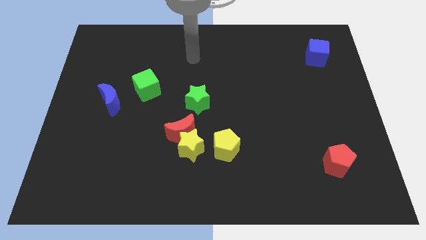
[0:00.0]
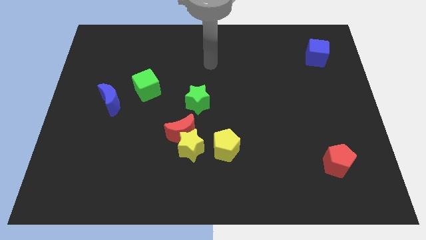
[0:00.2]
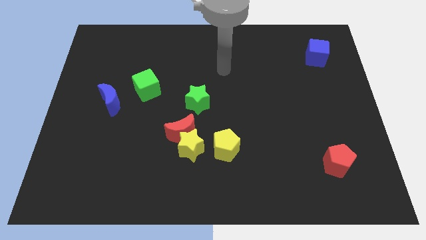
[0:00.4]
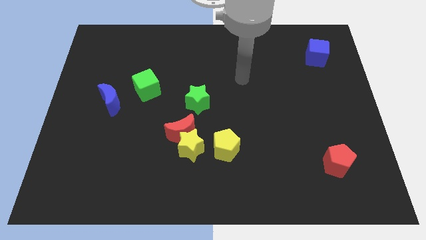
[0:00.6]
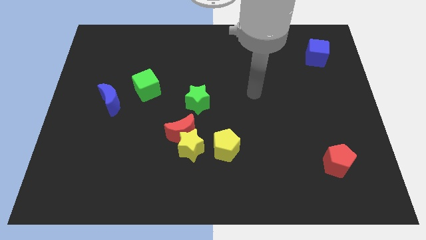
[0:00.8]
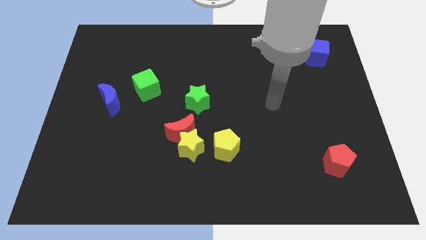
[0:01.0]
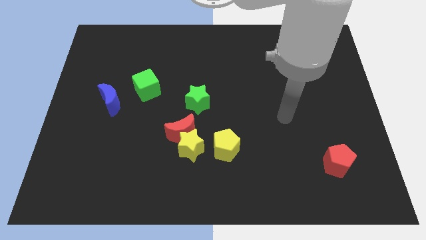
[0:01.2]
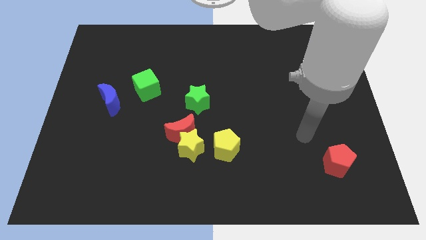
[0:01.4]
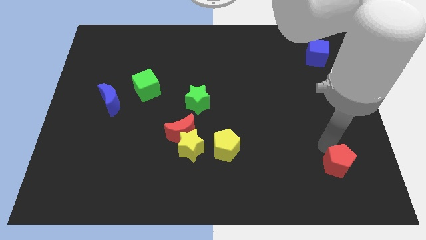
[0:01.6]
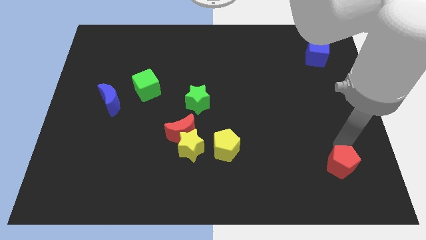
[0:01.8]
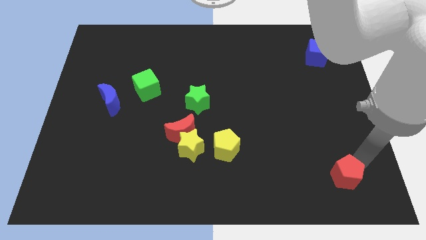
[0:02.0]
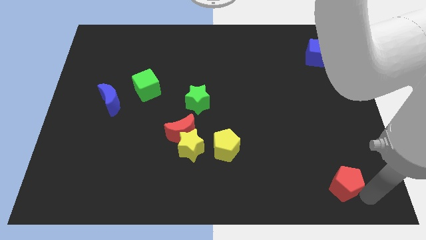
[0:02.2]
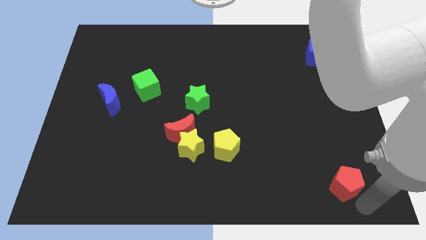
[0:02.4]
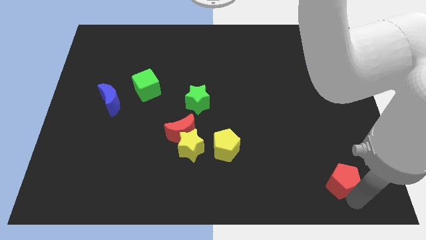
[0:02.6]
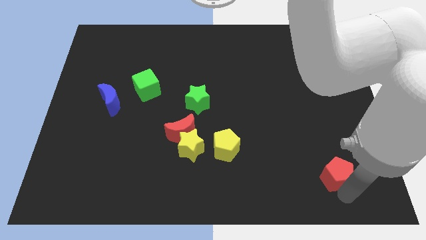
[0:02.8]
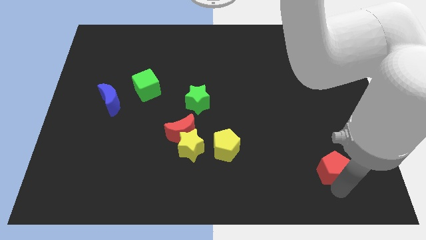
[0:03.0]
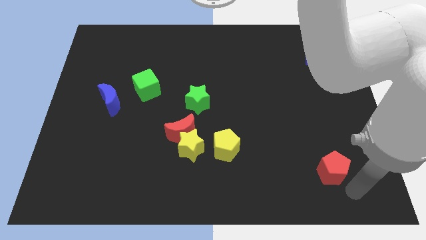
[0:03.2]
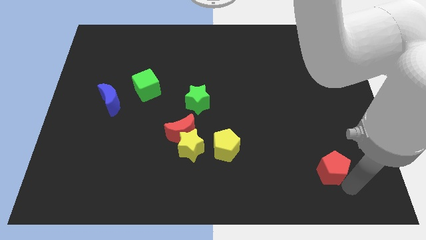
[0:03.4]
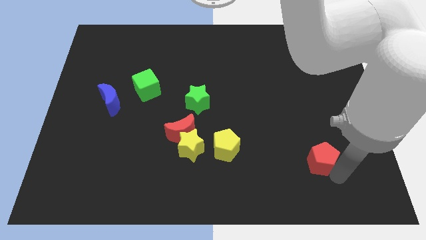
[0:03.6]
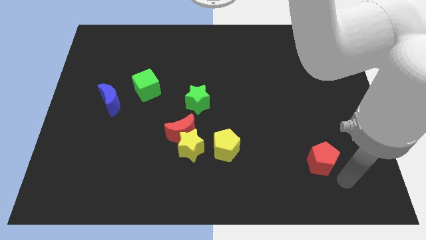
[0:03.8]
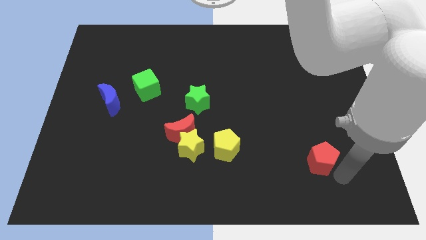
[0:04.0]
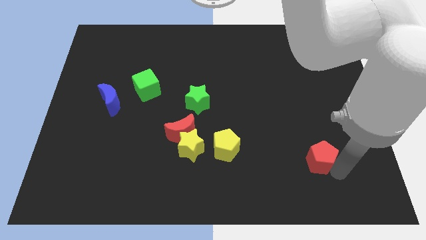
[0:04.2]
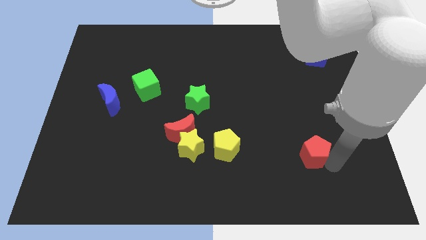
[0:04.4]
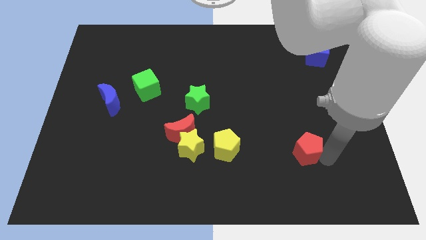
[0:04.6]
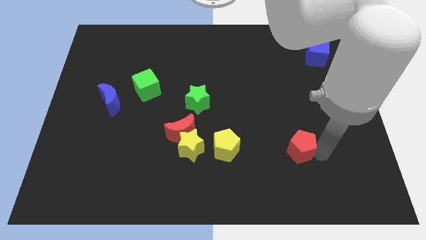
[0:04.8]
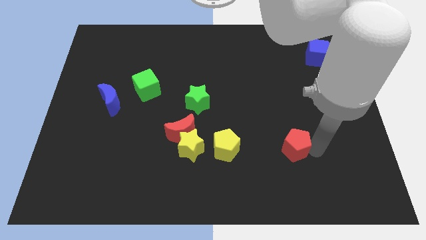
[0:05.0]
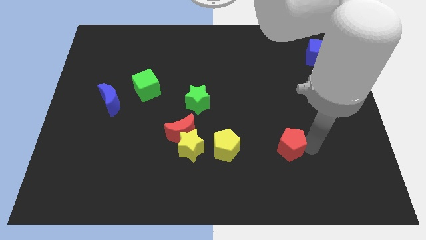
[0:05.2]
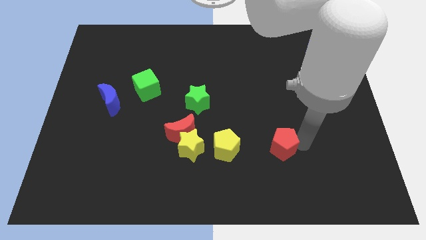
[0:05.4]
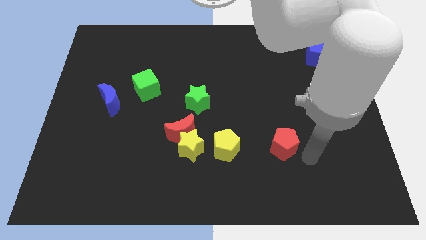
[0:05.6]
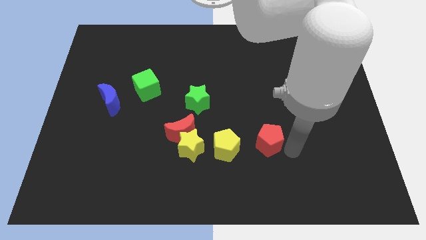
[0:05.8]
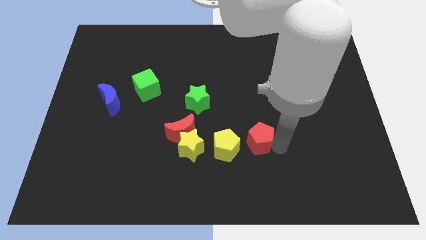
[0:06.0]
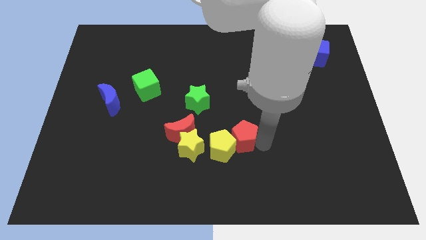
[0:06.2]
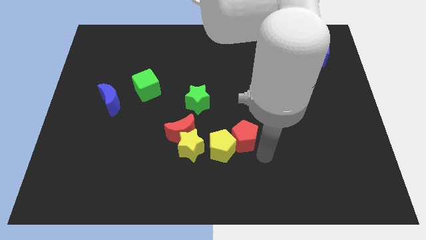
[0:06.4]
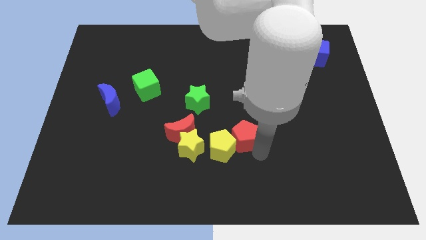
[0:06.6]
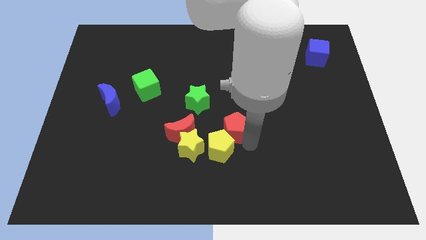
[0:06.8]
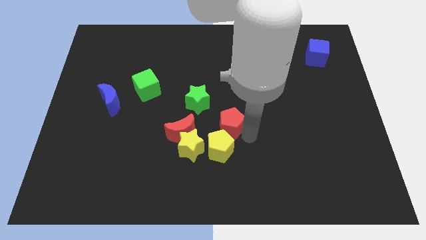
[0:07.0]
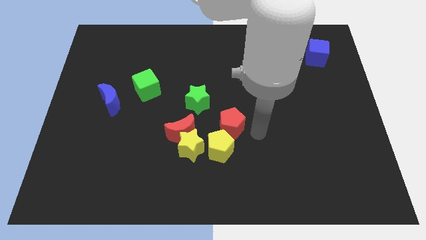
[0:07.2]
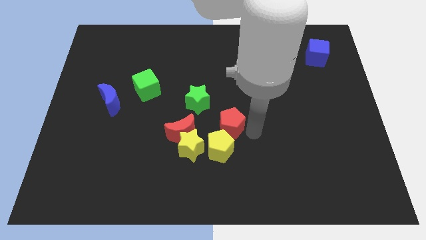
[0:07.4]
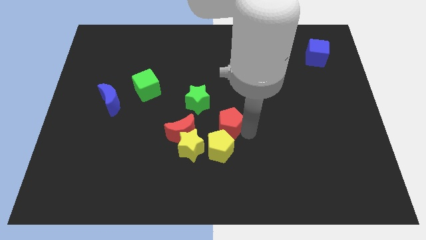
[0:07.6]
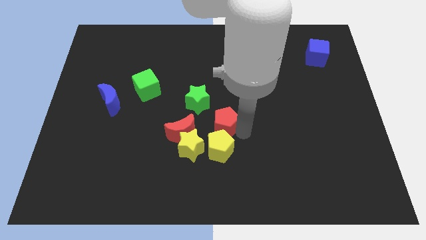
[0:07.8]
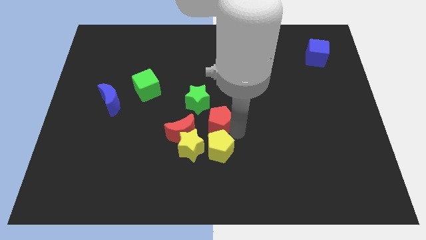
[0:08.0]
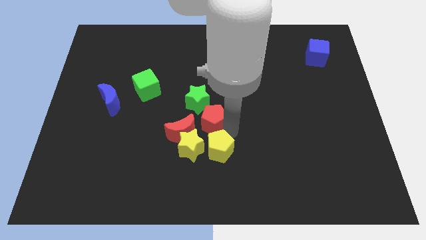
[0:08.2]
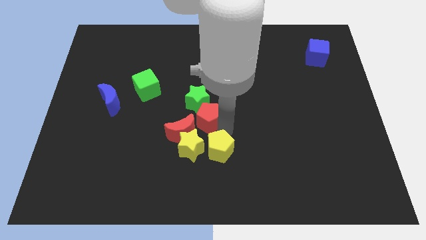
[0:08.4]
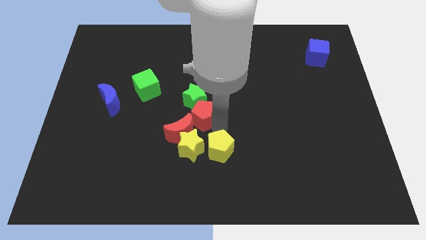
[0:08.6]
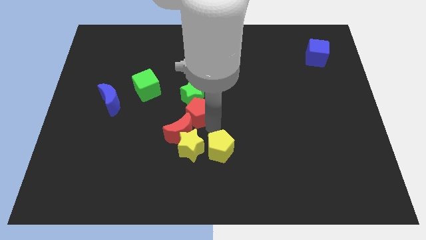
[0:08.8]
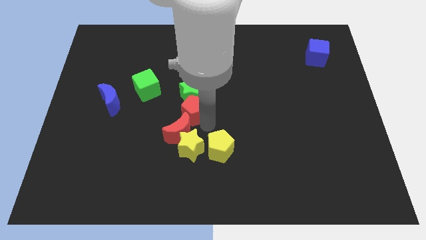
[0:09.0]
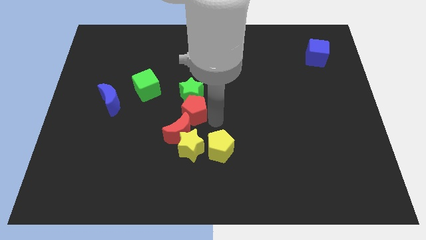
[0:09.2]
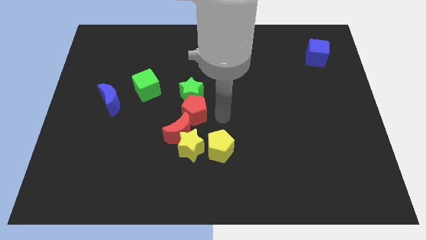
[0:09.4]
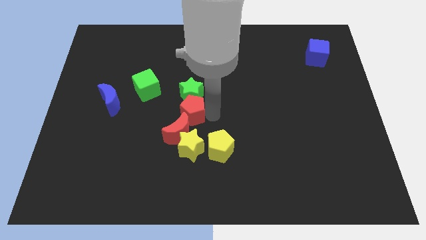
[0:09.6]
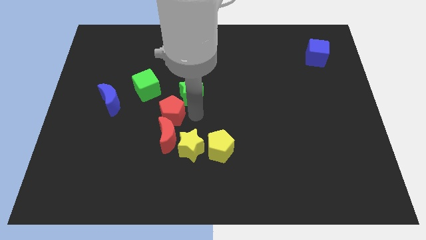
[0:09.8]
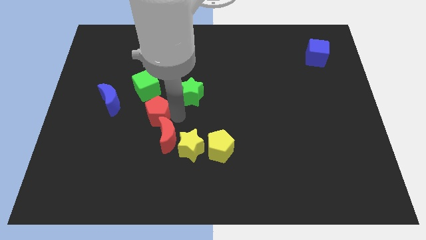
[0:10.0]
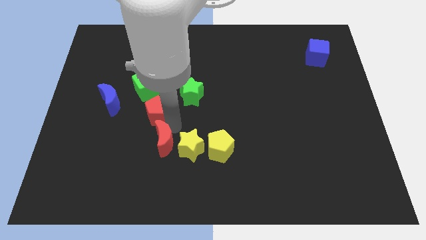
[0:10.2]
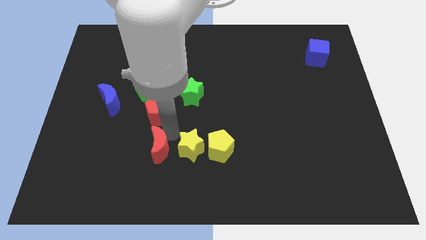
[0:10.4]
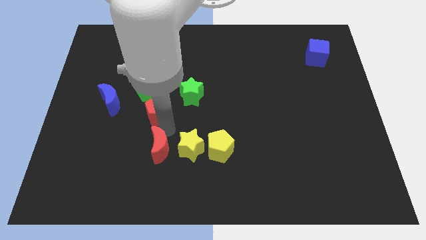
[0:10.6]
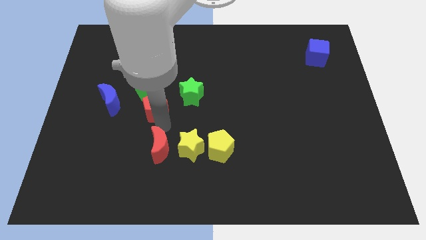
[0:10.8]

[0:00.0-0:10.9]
move the red pentagon left of the green star

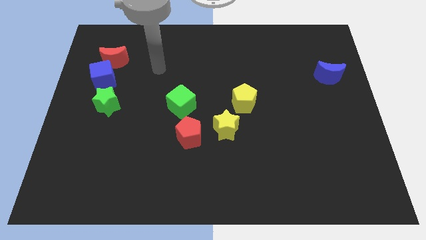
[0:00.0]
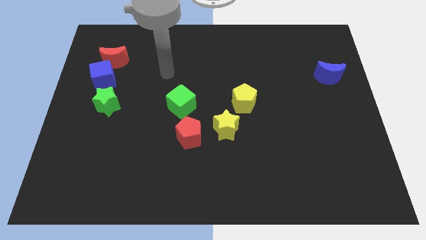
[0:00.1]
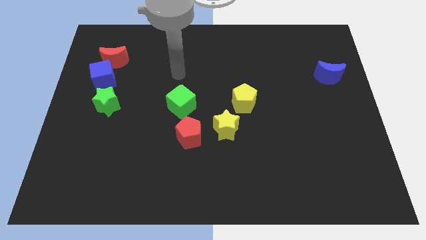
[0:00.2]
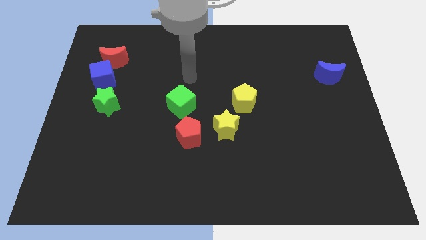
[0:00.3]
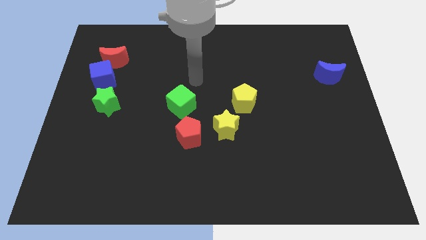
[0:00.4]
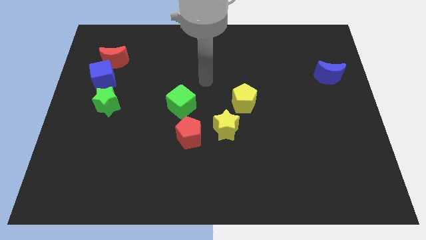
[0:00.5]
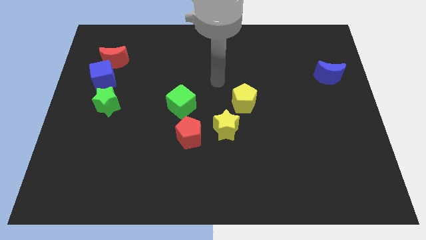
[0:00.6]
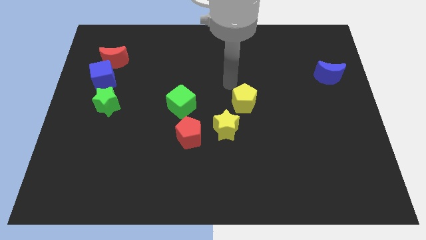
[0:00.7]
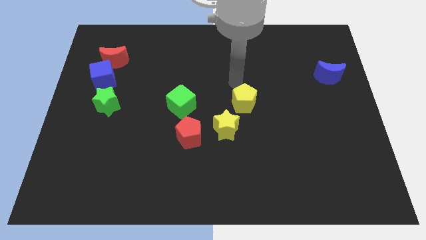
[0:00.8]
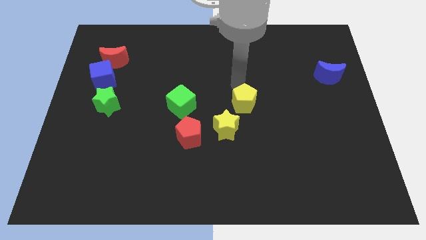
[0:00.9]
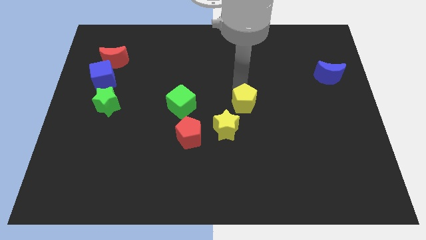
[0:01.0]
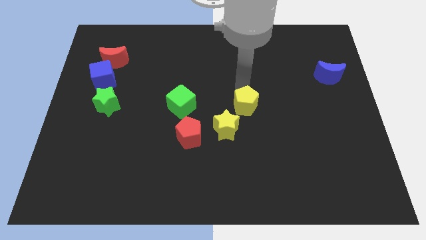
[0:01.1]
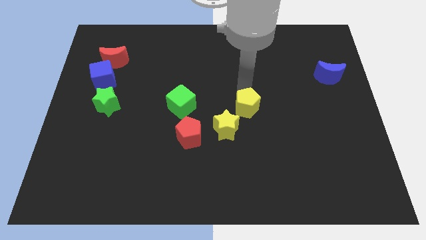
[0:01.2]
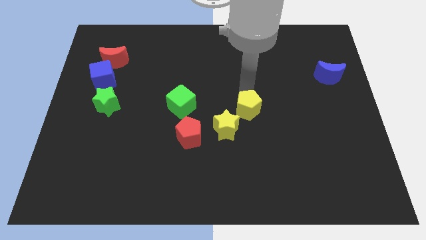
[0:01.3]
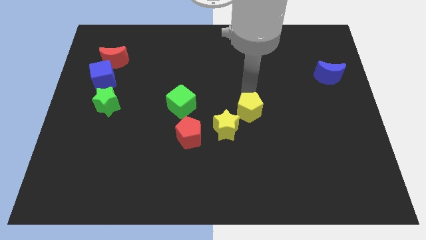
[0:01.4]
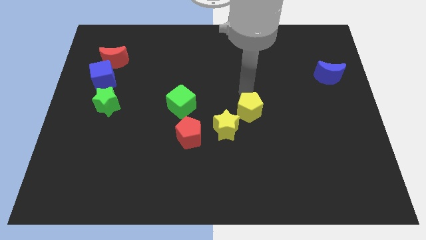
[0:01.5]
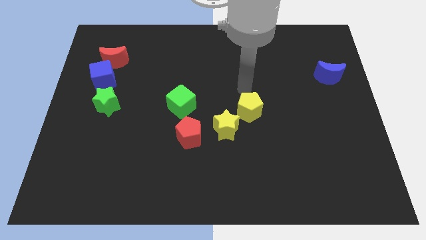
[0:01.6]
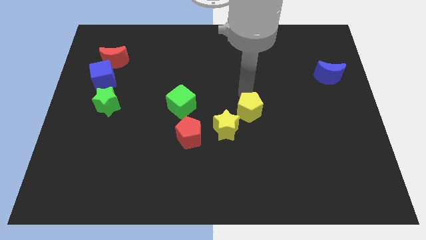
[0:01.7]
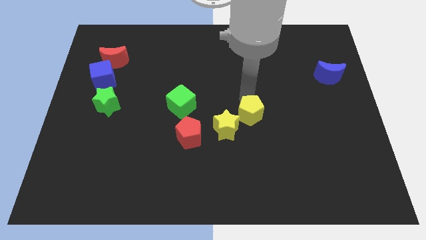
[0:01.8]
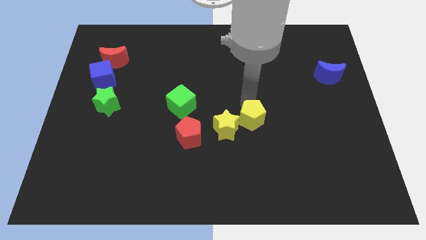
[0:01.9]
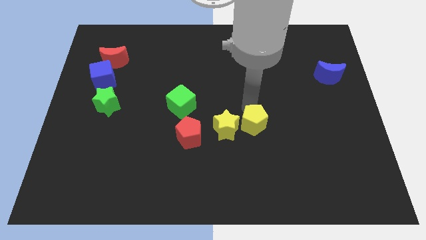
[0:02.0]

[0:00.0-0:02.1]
move the yellow pentagon right of the red pentagon
